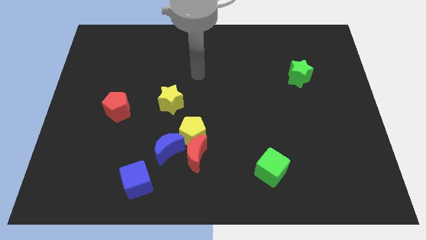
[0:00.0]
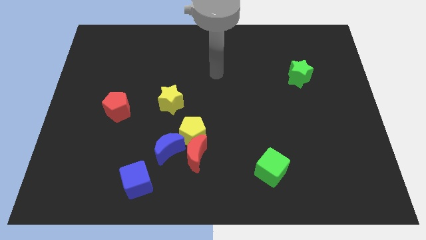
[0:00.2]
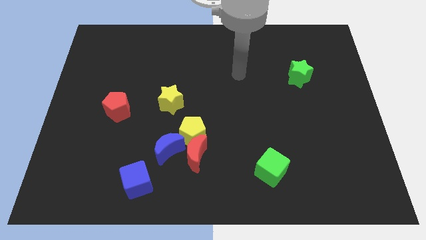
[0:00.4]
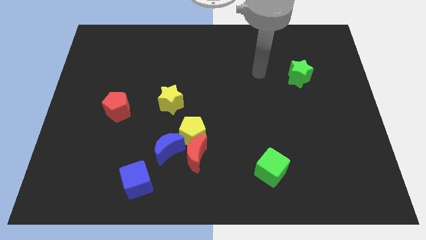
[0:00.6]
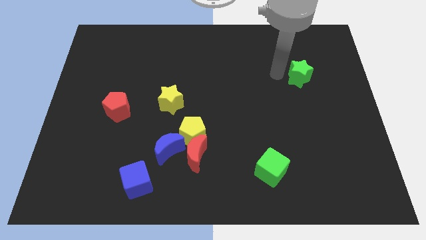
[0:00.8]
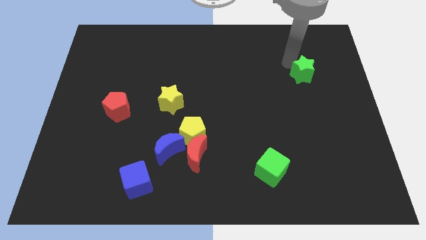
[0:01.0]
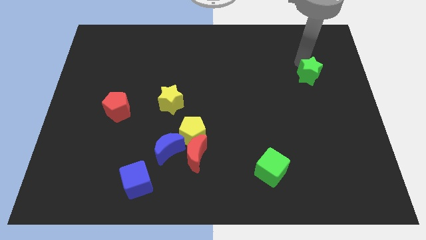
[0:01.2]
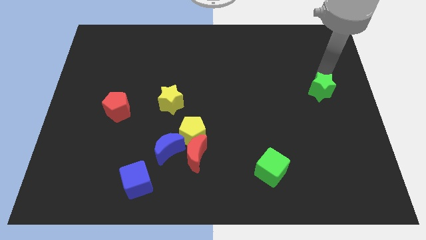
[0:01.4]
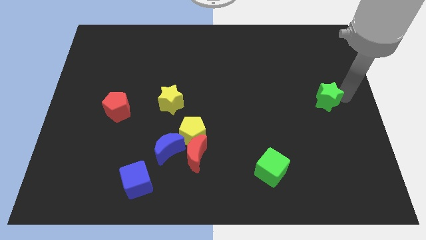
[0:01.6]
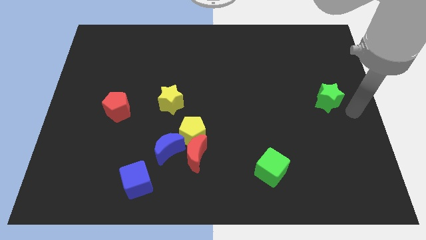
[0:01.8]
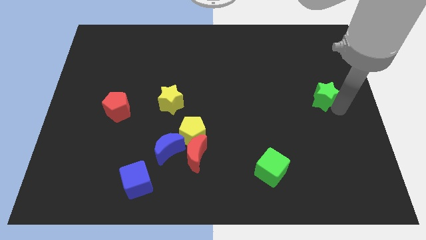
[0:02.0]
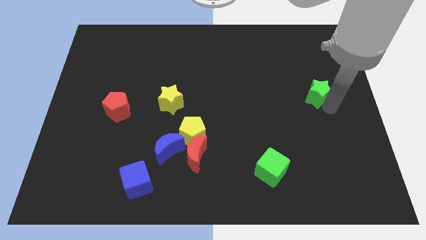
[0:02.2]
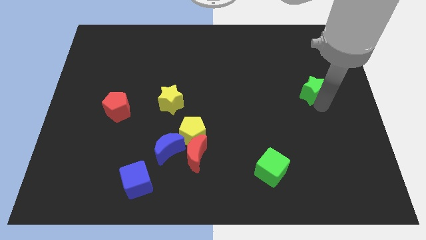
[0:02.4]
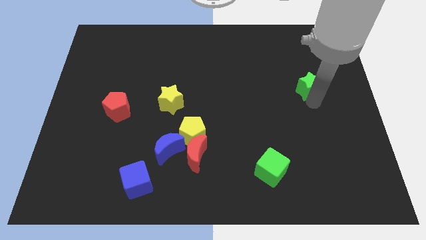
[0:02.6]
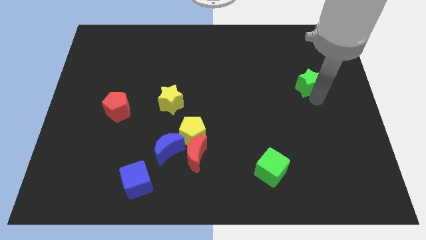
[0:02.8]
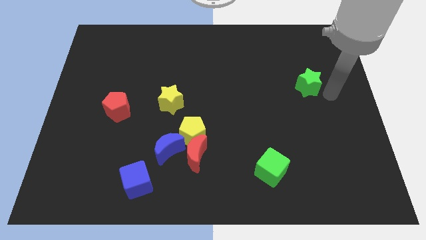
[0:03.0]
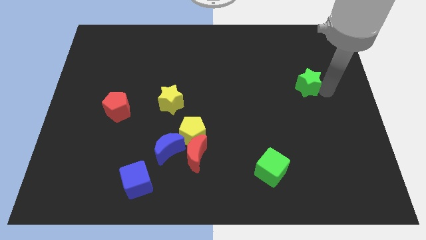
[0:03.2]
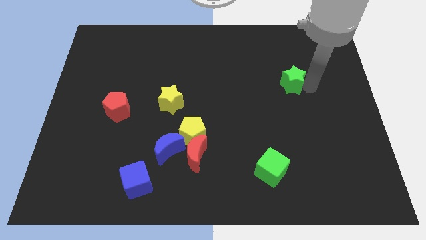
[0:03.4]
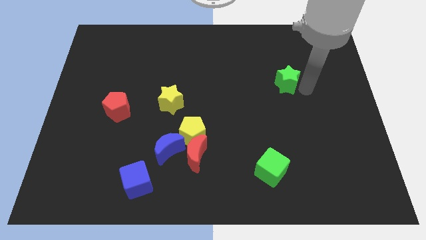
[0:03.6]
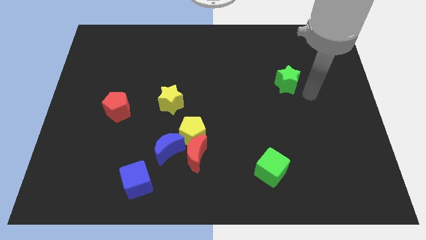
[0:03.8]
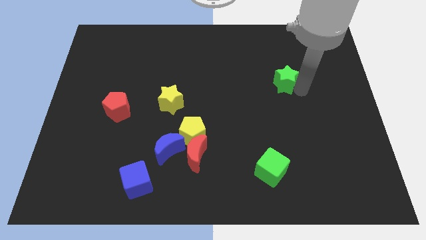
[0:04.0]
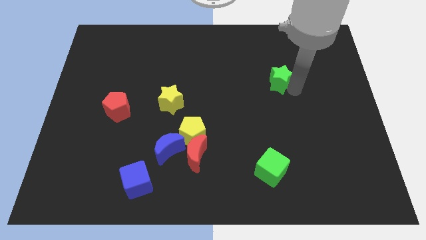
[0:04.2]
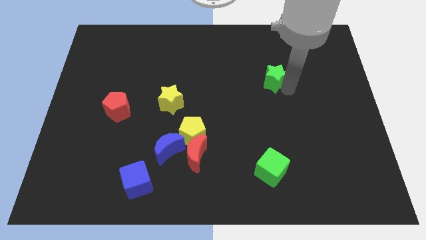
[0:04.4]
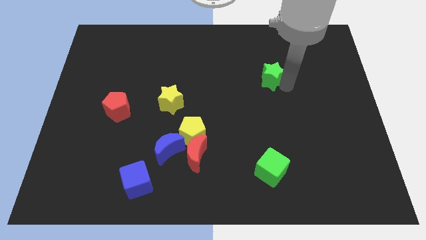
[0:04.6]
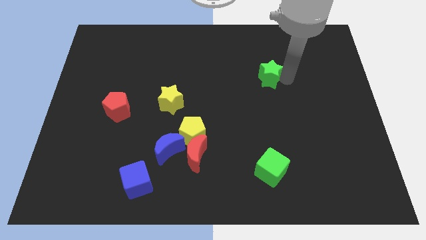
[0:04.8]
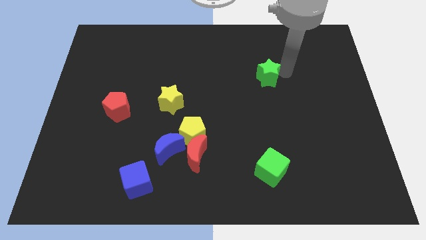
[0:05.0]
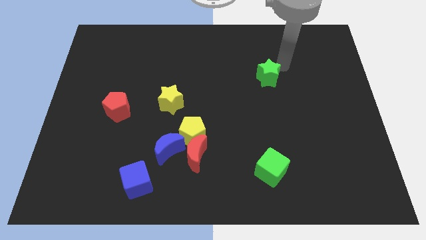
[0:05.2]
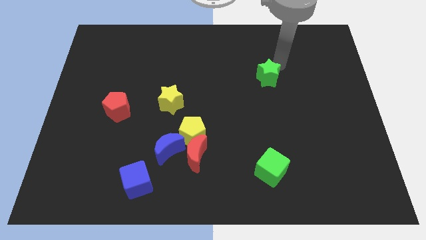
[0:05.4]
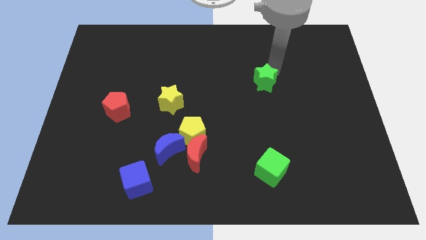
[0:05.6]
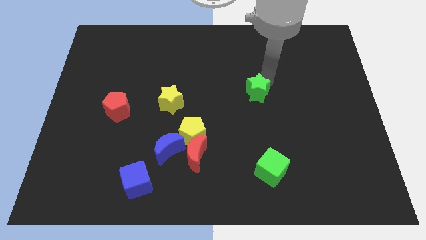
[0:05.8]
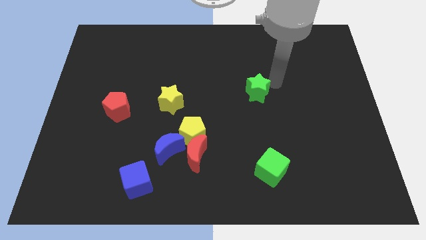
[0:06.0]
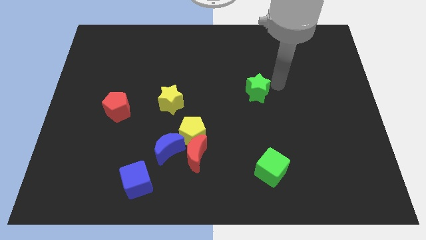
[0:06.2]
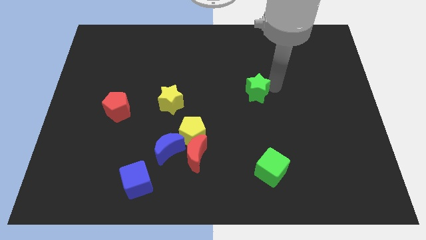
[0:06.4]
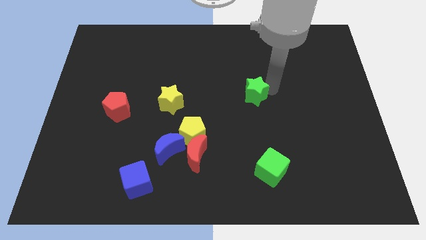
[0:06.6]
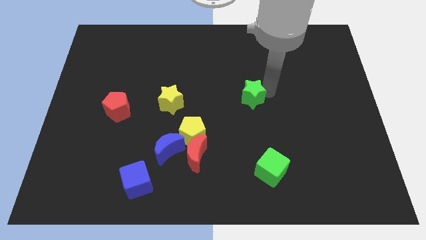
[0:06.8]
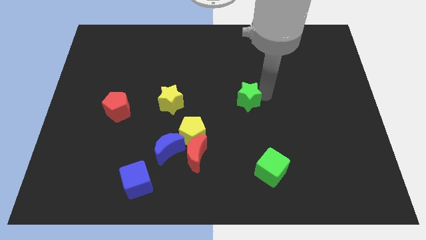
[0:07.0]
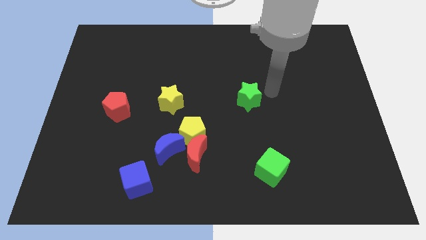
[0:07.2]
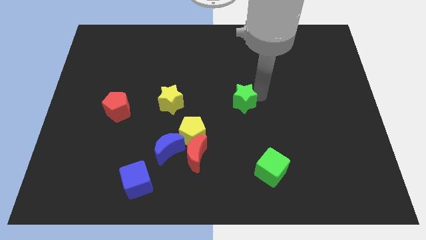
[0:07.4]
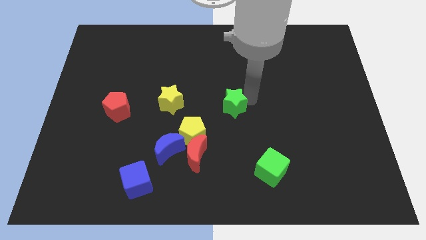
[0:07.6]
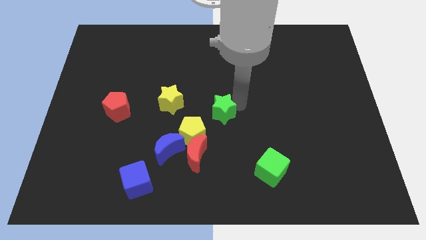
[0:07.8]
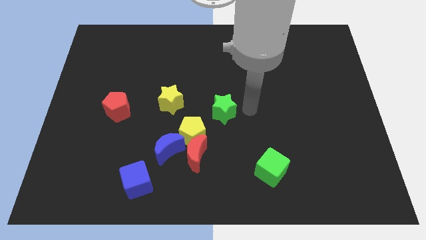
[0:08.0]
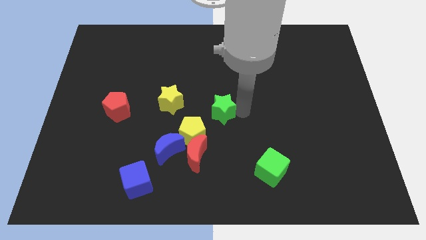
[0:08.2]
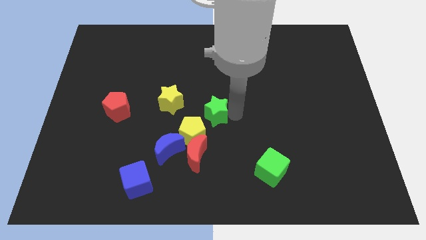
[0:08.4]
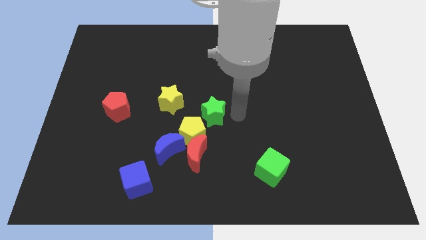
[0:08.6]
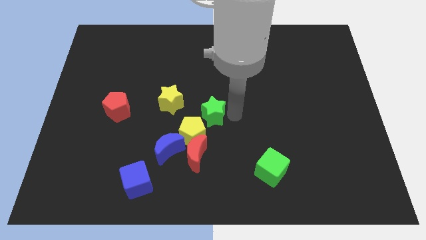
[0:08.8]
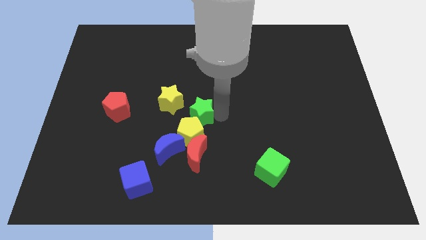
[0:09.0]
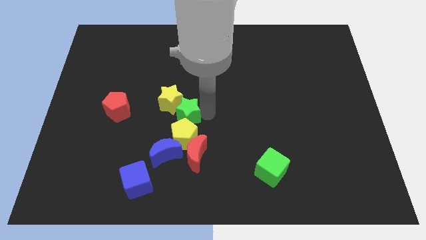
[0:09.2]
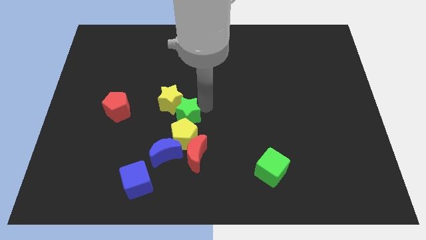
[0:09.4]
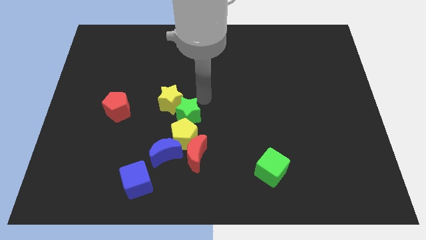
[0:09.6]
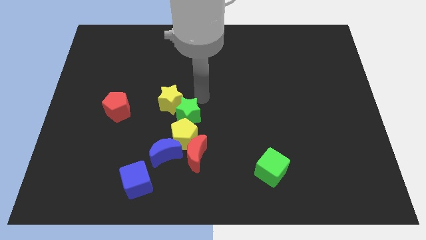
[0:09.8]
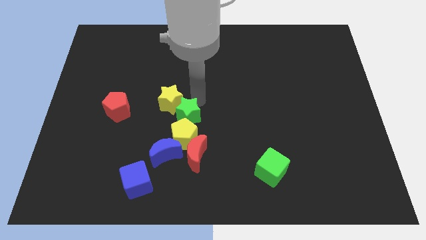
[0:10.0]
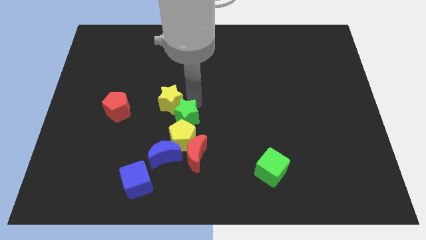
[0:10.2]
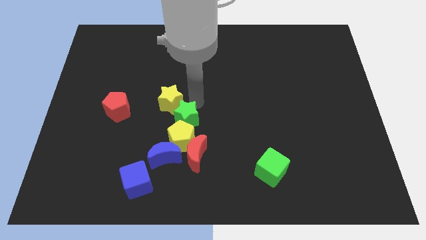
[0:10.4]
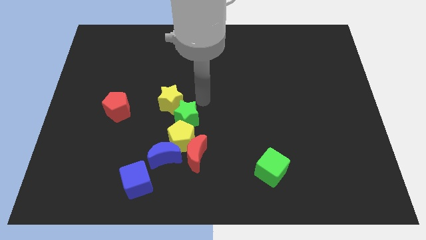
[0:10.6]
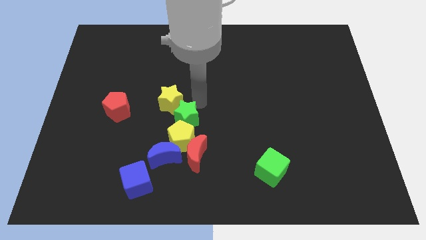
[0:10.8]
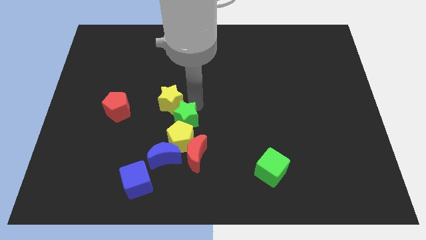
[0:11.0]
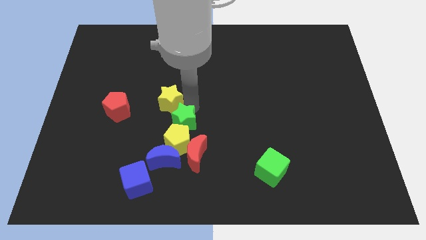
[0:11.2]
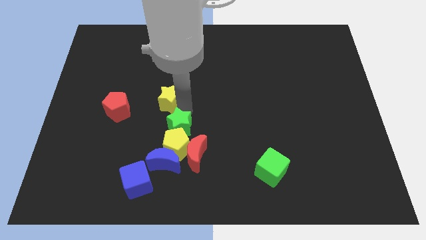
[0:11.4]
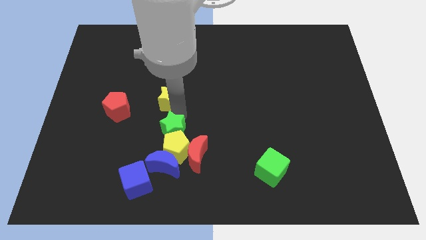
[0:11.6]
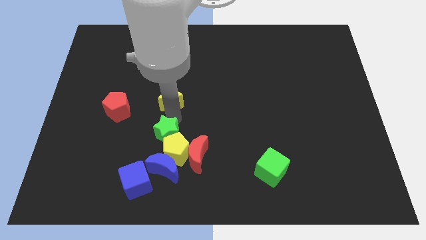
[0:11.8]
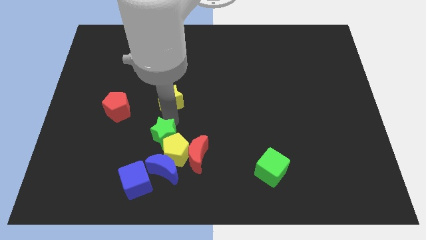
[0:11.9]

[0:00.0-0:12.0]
move the green star to the top of the blue cube
